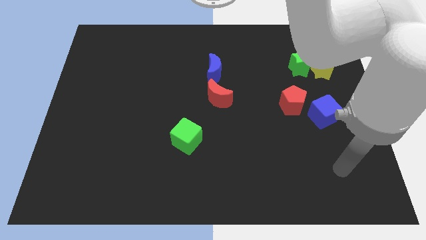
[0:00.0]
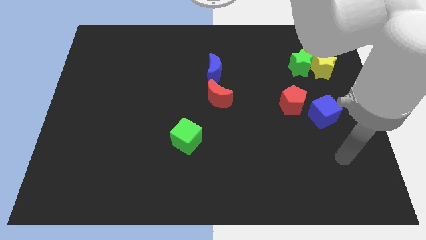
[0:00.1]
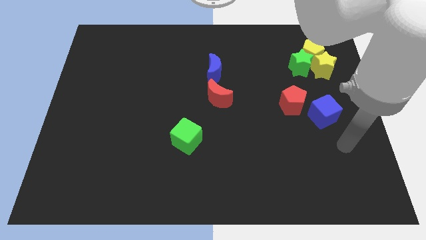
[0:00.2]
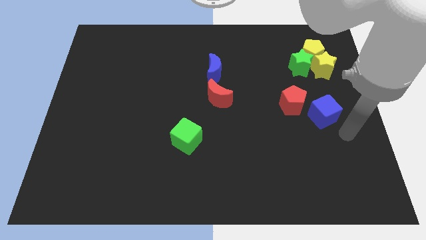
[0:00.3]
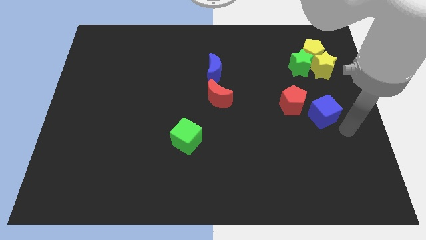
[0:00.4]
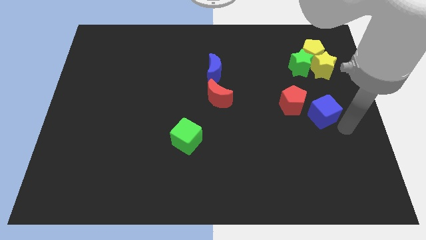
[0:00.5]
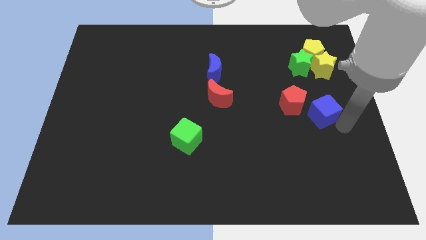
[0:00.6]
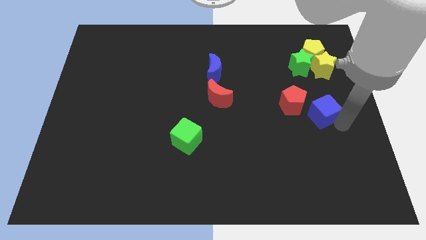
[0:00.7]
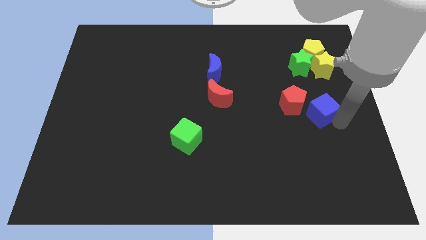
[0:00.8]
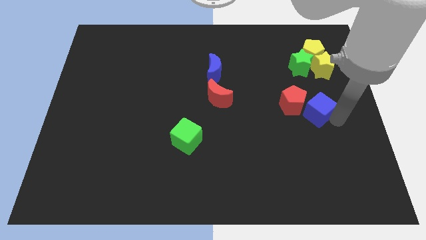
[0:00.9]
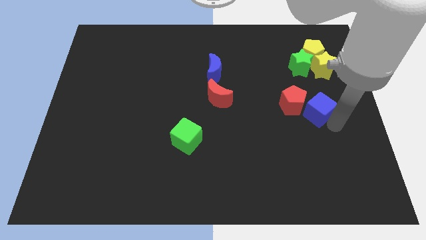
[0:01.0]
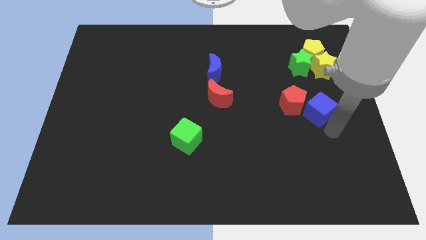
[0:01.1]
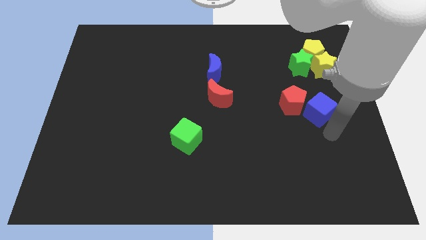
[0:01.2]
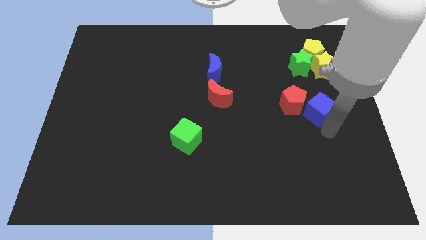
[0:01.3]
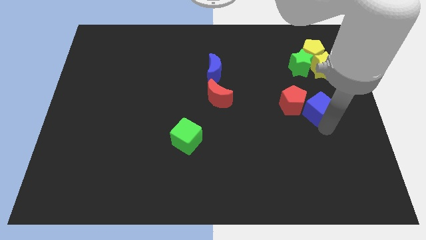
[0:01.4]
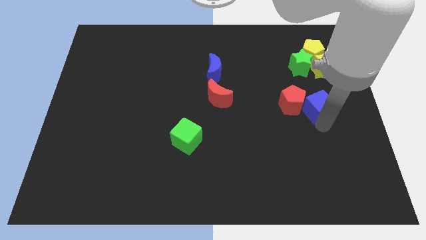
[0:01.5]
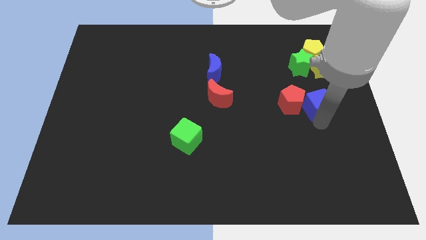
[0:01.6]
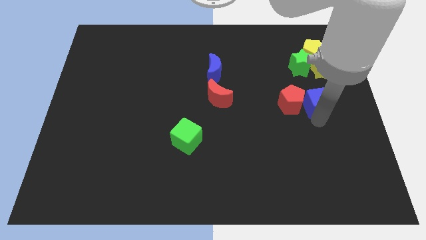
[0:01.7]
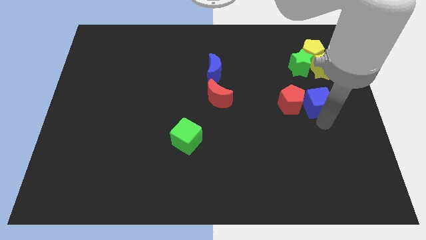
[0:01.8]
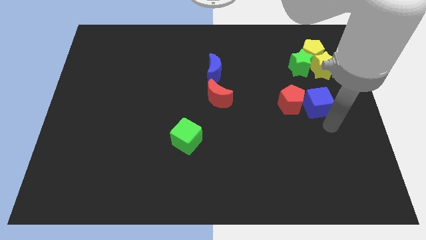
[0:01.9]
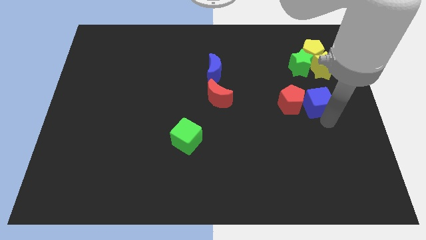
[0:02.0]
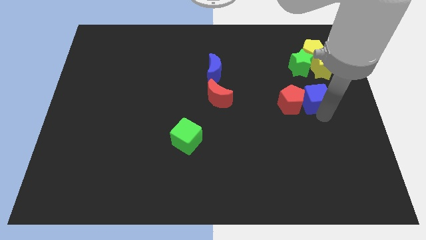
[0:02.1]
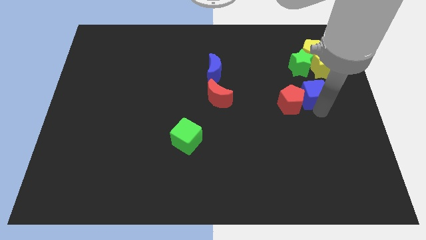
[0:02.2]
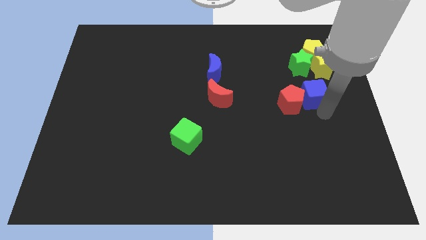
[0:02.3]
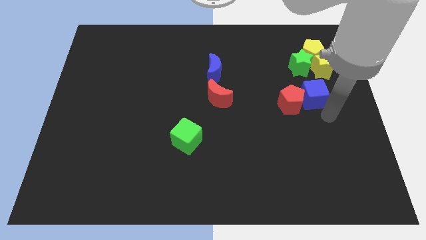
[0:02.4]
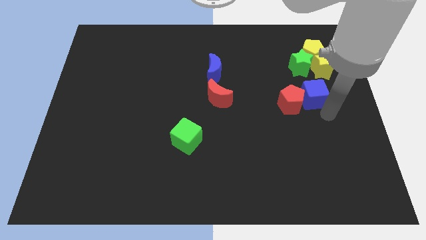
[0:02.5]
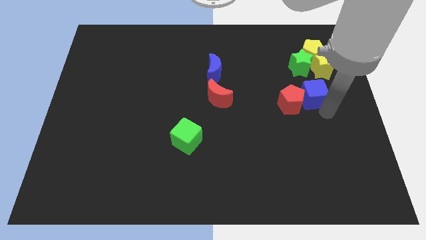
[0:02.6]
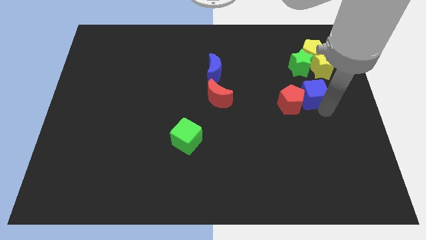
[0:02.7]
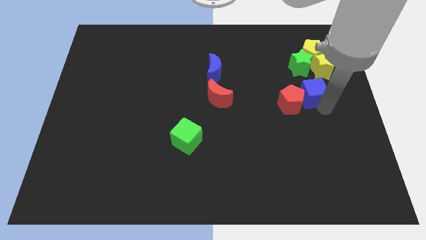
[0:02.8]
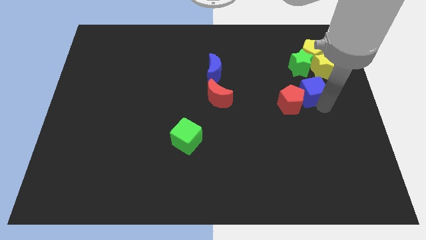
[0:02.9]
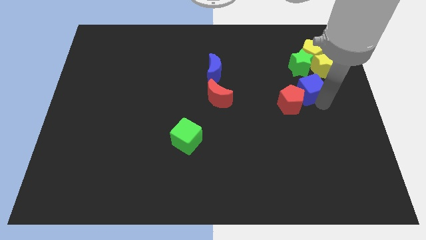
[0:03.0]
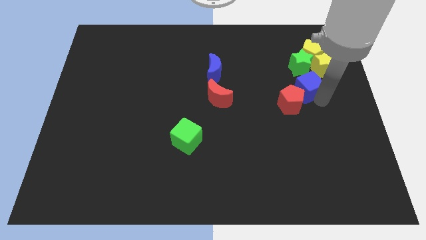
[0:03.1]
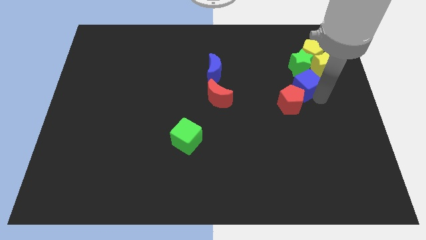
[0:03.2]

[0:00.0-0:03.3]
slightly move the blue cube up and left

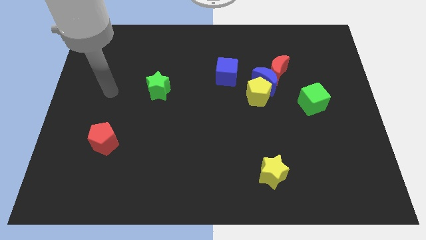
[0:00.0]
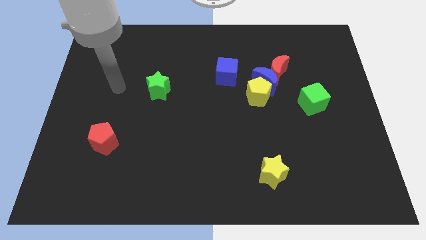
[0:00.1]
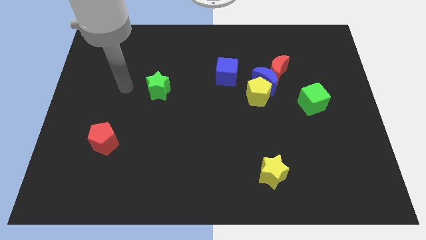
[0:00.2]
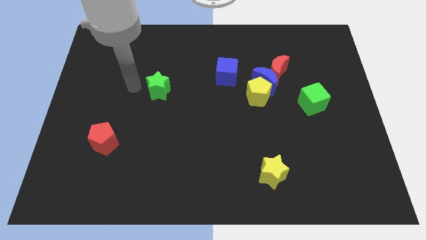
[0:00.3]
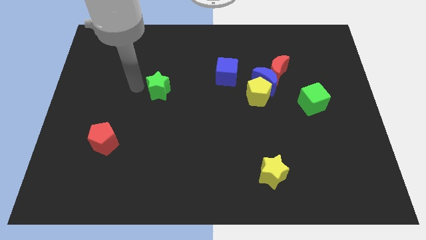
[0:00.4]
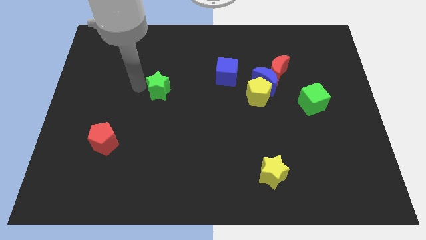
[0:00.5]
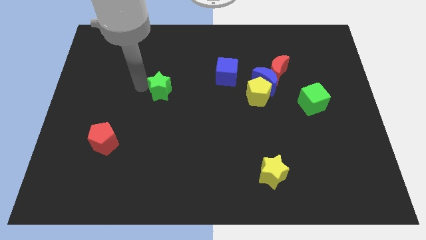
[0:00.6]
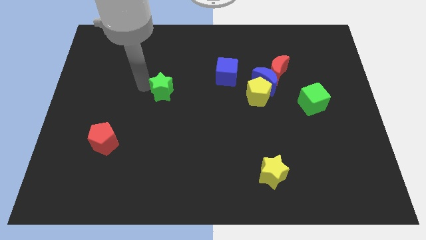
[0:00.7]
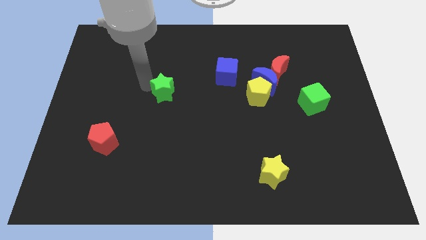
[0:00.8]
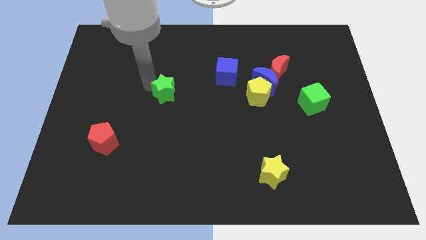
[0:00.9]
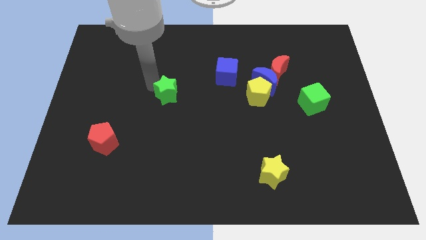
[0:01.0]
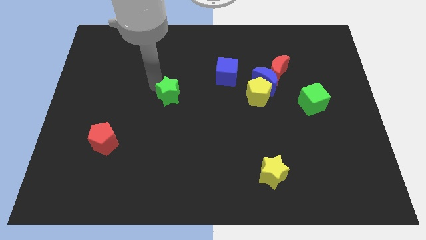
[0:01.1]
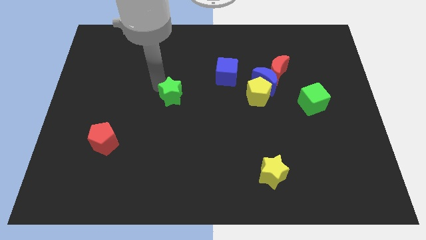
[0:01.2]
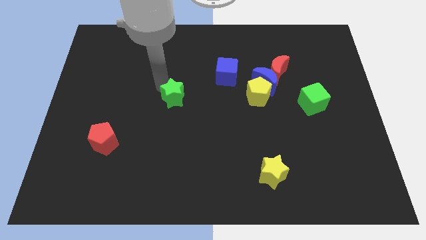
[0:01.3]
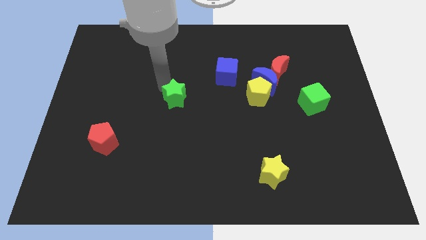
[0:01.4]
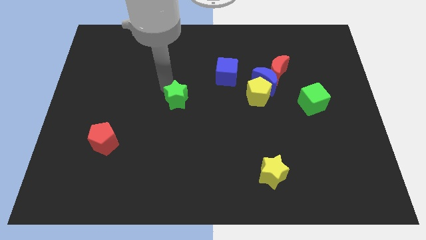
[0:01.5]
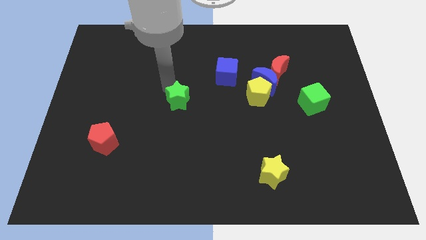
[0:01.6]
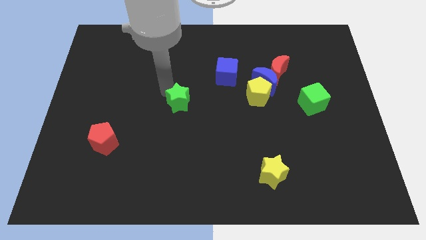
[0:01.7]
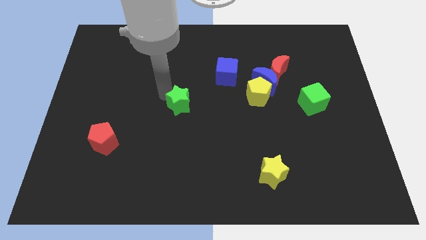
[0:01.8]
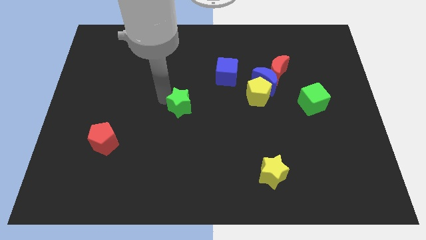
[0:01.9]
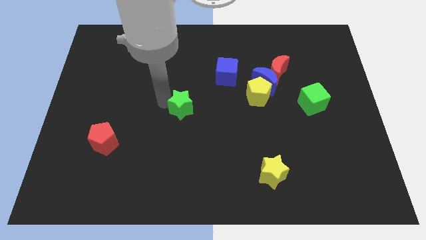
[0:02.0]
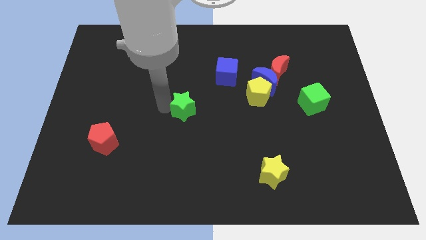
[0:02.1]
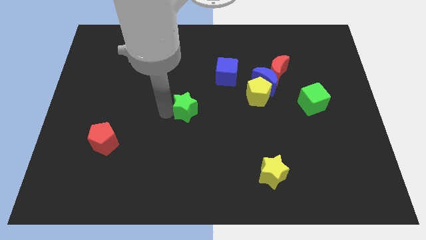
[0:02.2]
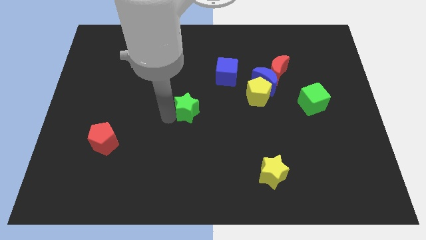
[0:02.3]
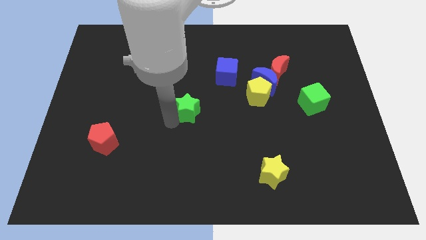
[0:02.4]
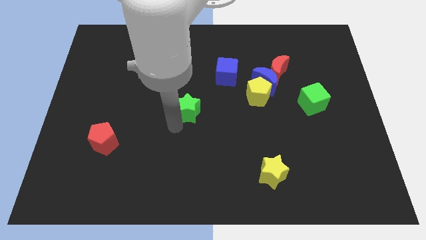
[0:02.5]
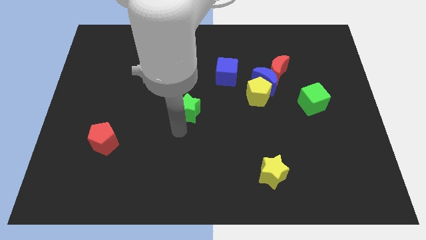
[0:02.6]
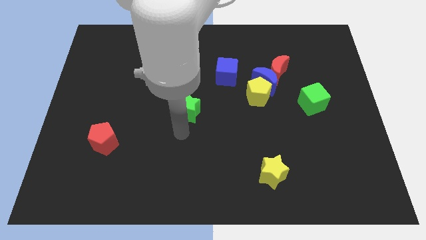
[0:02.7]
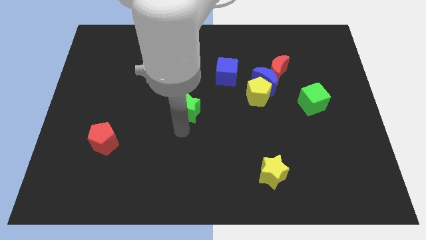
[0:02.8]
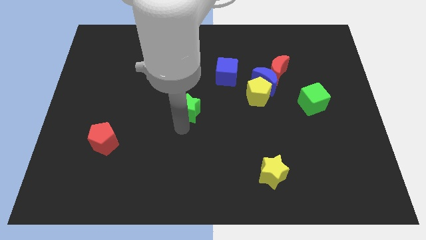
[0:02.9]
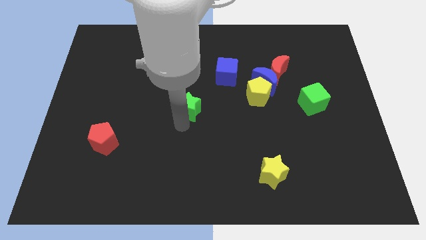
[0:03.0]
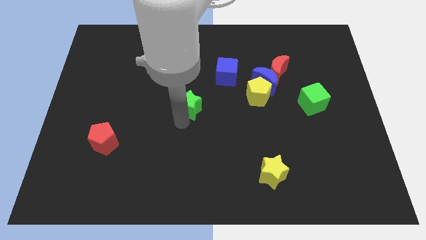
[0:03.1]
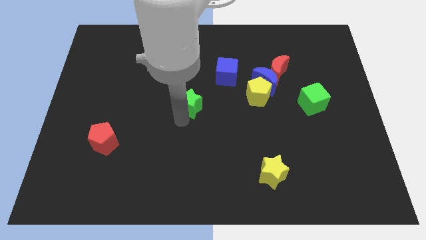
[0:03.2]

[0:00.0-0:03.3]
move the green star right a bit

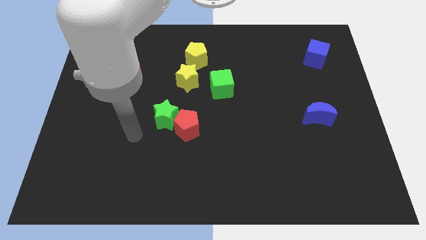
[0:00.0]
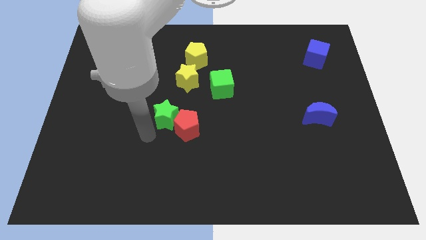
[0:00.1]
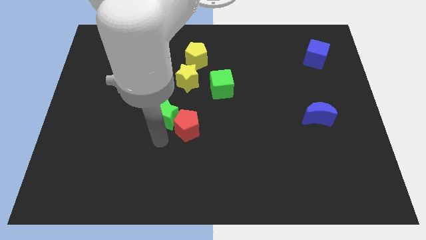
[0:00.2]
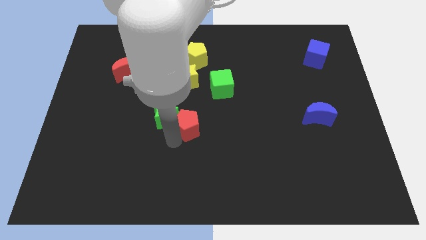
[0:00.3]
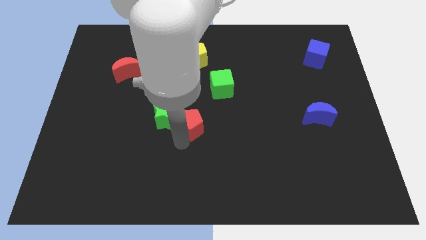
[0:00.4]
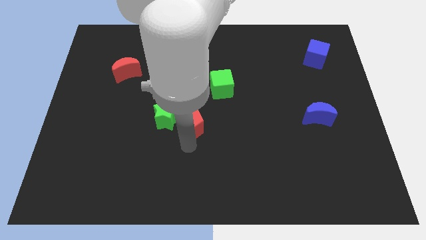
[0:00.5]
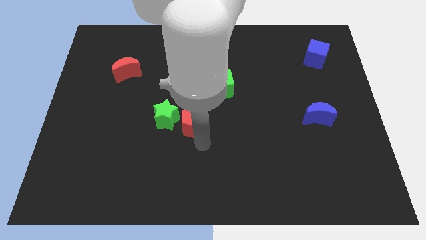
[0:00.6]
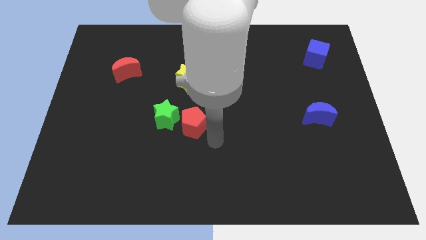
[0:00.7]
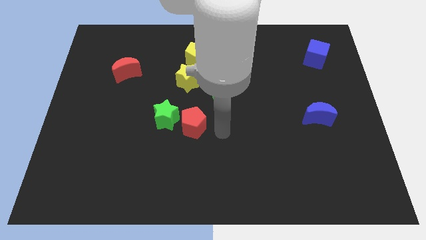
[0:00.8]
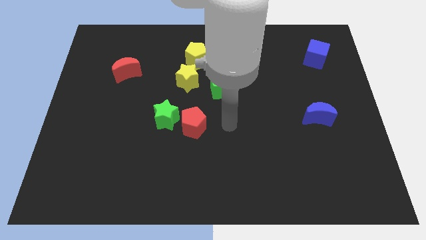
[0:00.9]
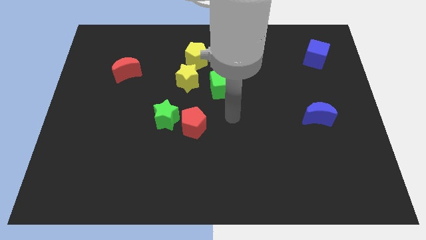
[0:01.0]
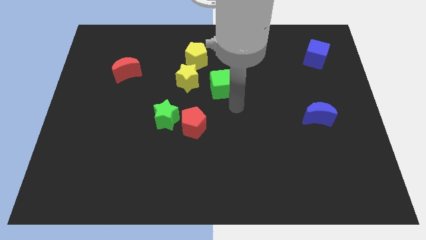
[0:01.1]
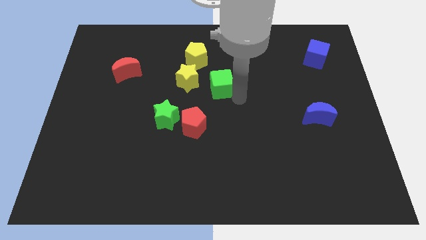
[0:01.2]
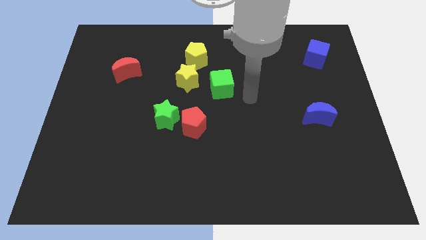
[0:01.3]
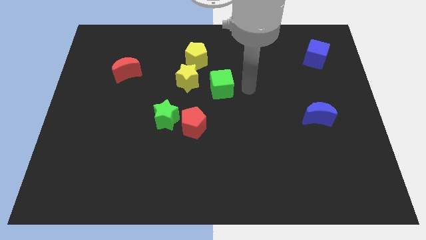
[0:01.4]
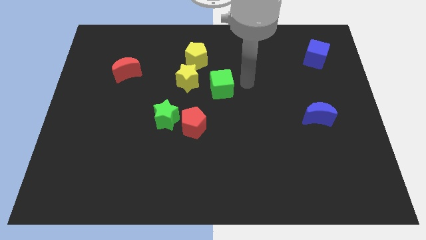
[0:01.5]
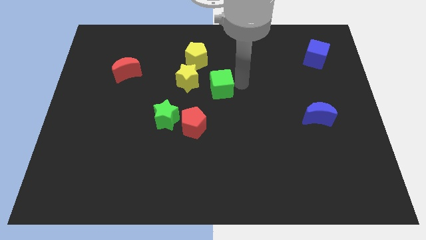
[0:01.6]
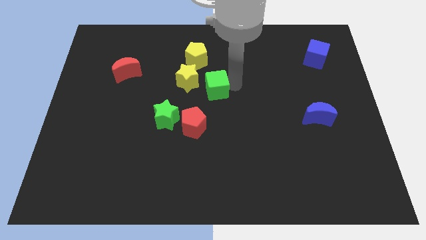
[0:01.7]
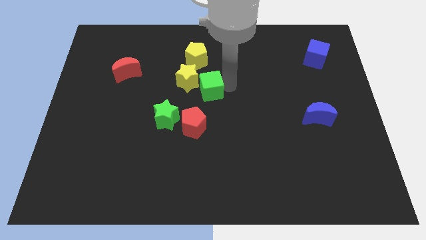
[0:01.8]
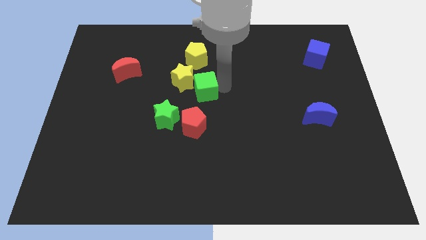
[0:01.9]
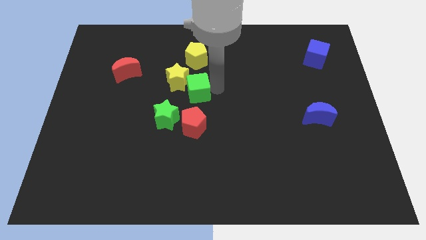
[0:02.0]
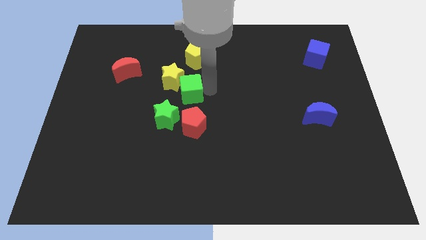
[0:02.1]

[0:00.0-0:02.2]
slide the green cube a bit left
